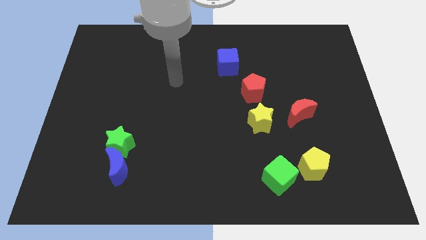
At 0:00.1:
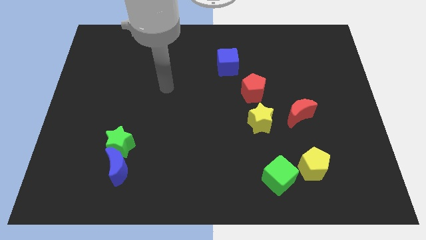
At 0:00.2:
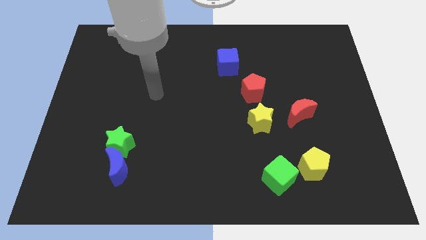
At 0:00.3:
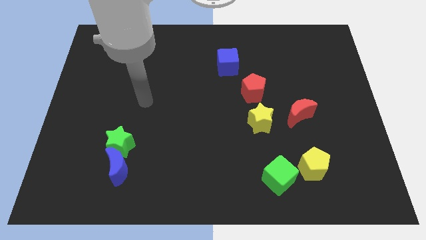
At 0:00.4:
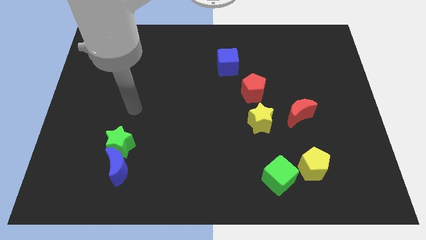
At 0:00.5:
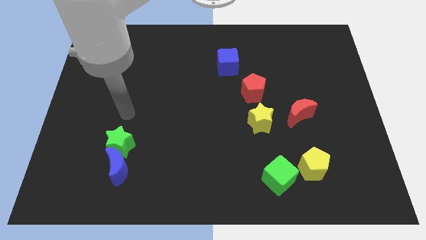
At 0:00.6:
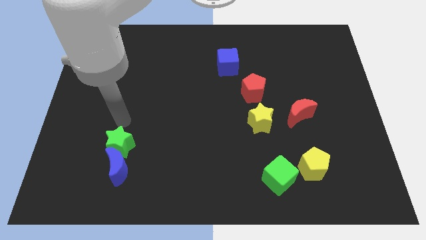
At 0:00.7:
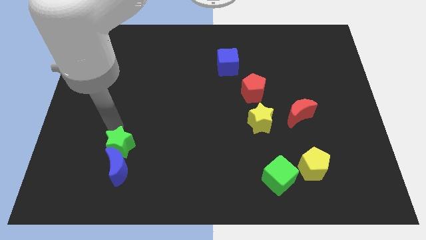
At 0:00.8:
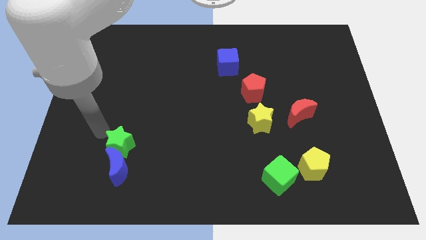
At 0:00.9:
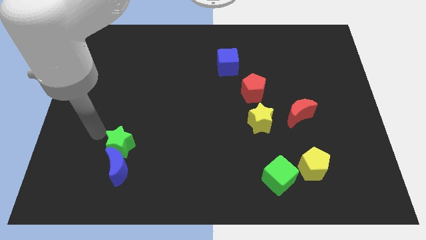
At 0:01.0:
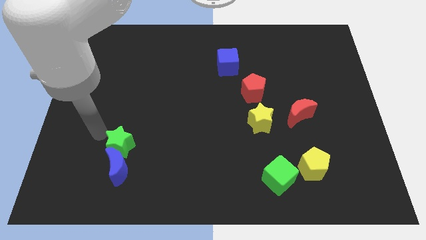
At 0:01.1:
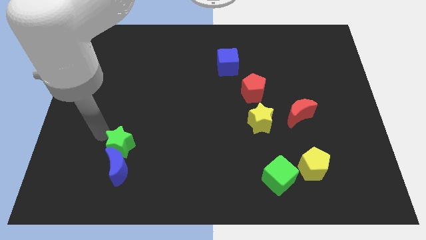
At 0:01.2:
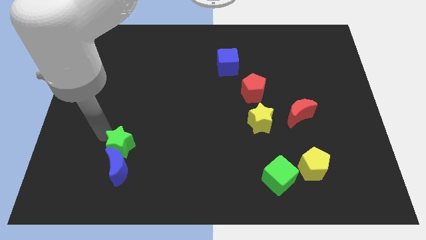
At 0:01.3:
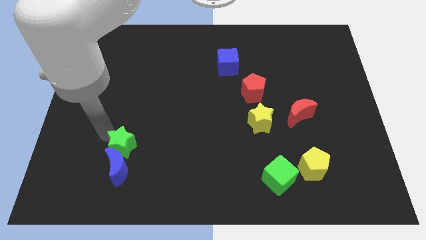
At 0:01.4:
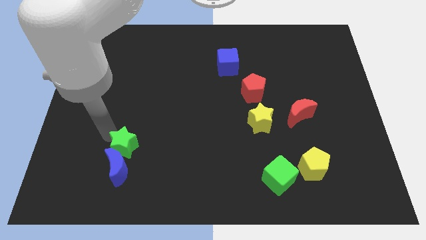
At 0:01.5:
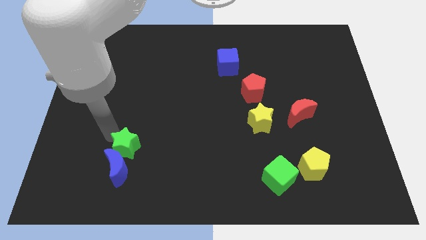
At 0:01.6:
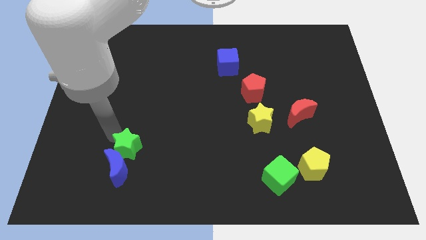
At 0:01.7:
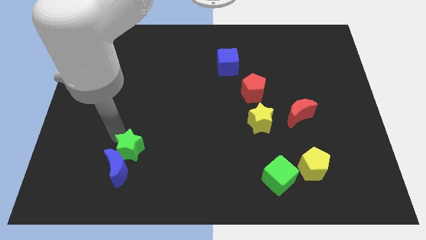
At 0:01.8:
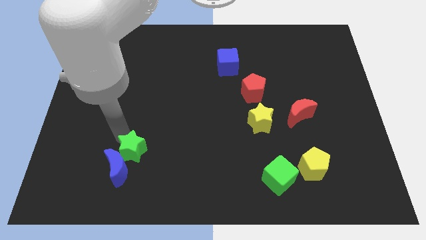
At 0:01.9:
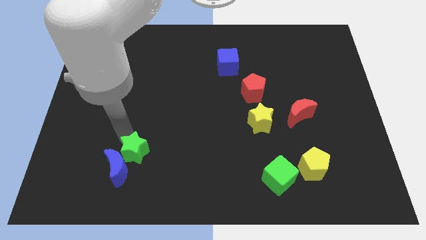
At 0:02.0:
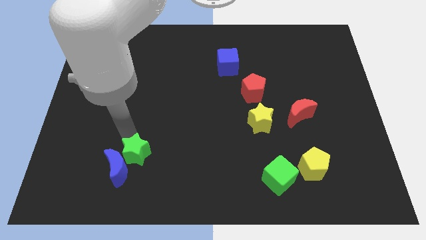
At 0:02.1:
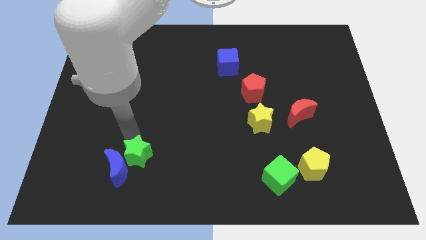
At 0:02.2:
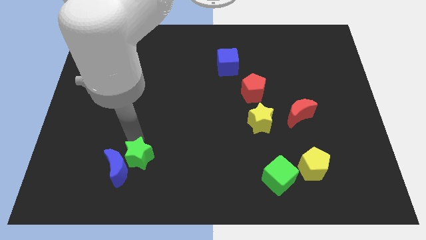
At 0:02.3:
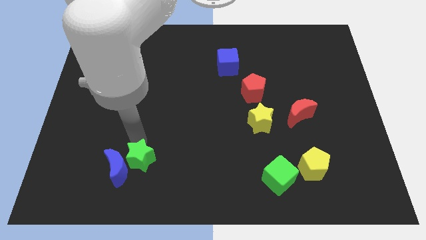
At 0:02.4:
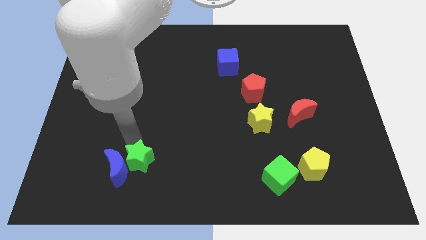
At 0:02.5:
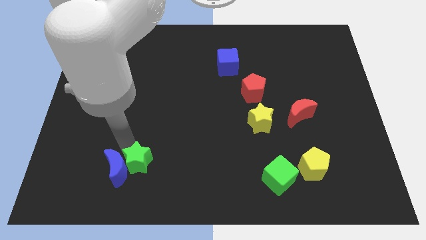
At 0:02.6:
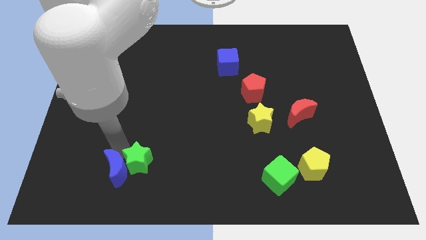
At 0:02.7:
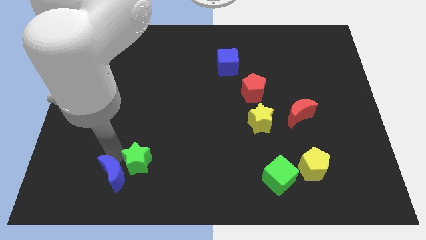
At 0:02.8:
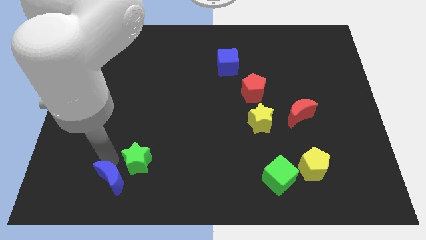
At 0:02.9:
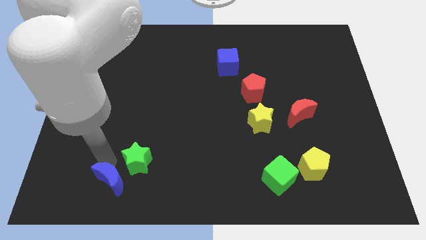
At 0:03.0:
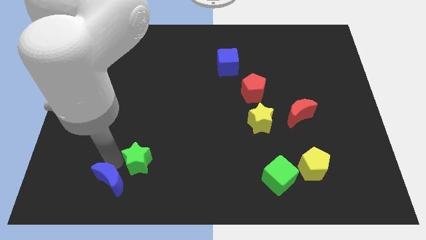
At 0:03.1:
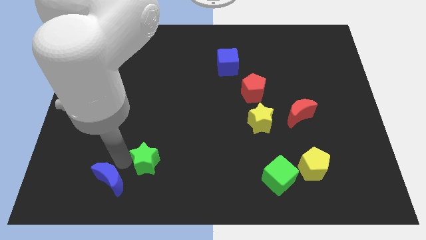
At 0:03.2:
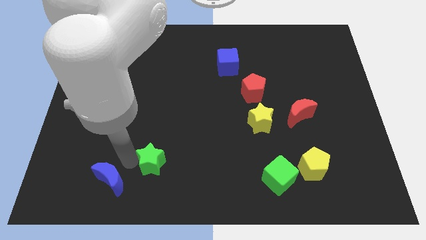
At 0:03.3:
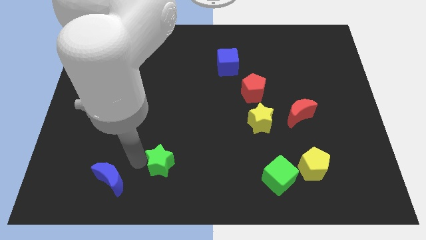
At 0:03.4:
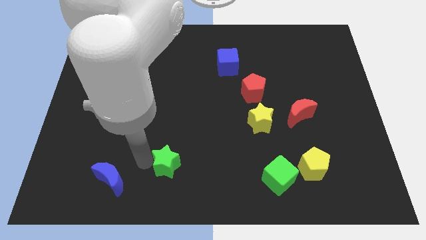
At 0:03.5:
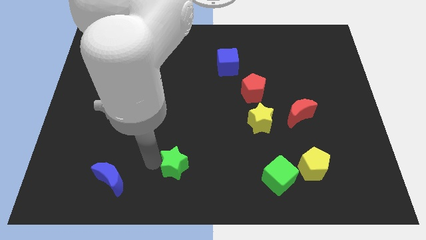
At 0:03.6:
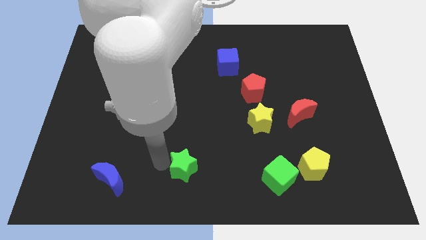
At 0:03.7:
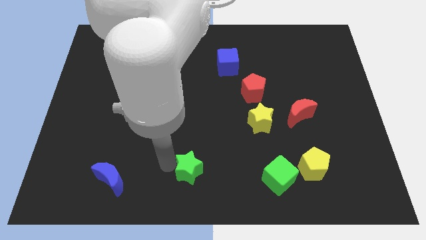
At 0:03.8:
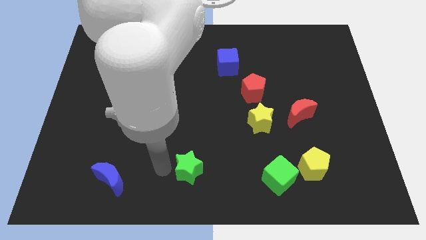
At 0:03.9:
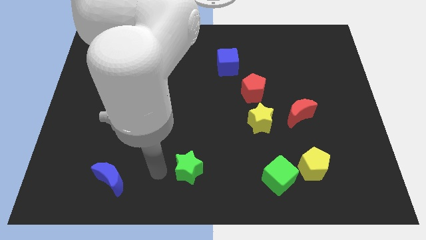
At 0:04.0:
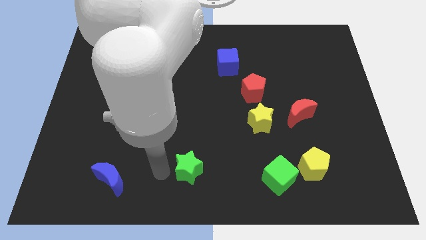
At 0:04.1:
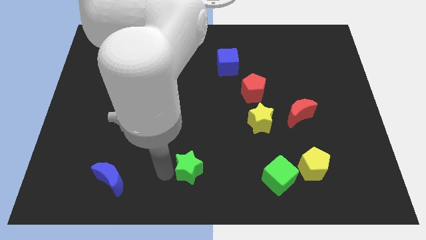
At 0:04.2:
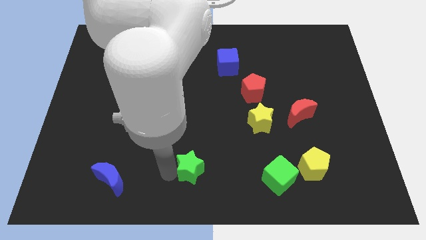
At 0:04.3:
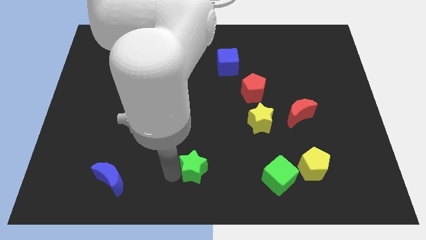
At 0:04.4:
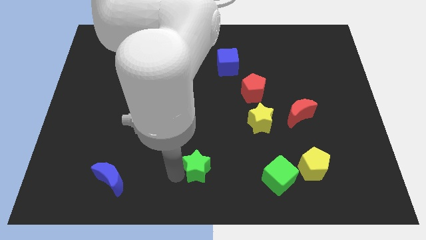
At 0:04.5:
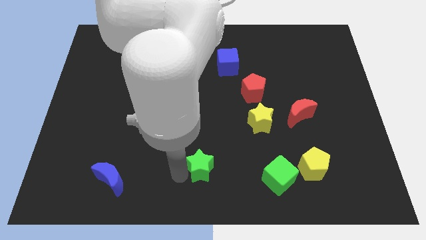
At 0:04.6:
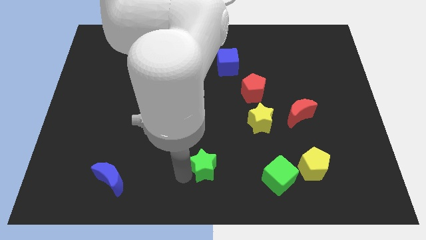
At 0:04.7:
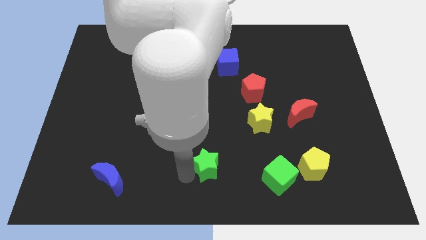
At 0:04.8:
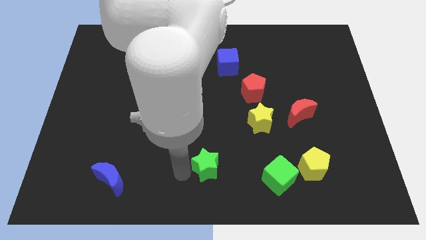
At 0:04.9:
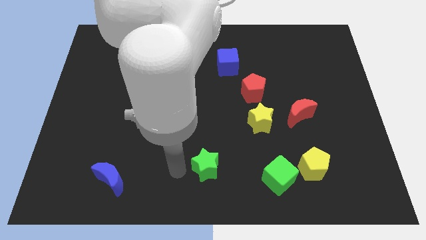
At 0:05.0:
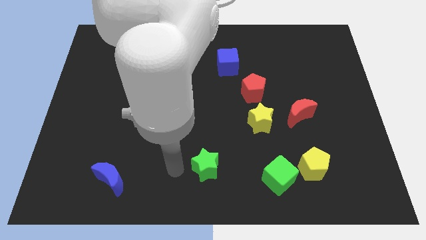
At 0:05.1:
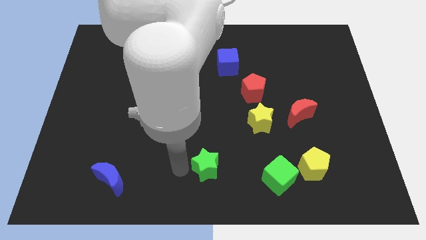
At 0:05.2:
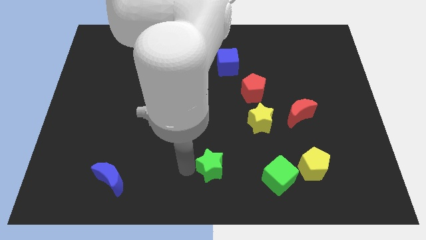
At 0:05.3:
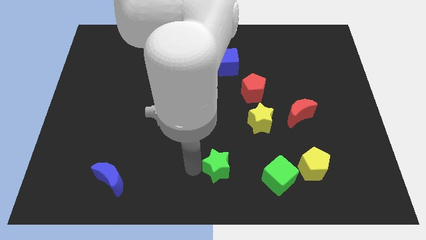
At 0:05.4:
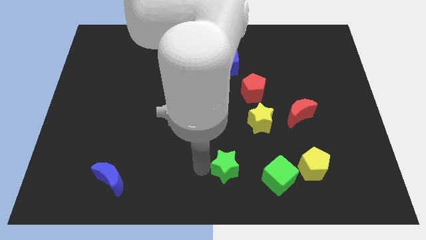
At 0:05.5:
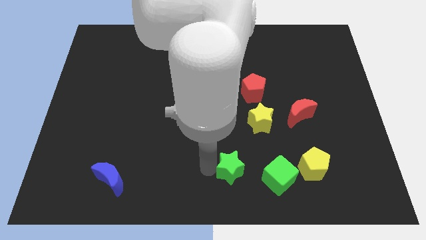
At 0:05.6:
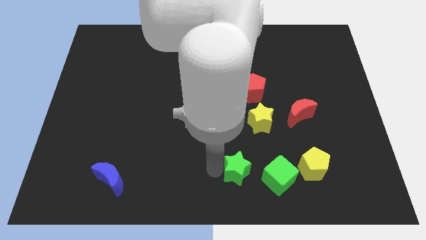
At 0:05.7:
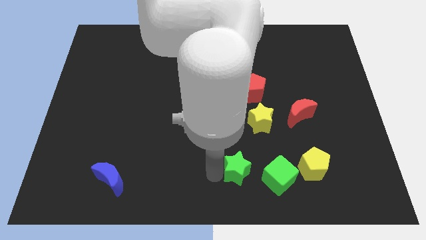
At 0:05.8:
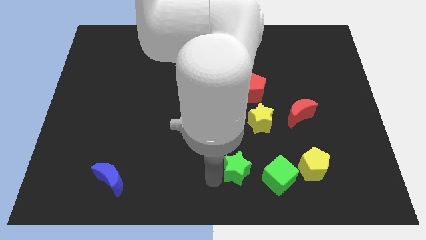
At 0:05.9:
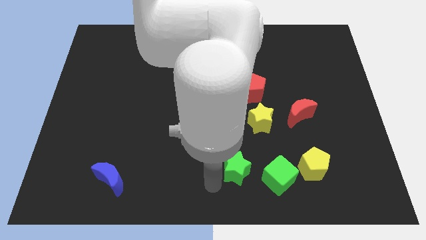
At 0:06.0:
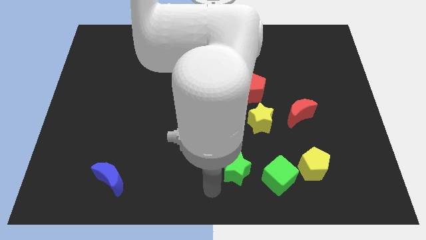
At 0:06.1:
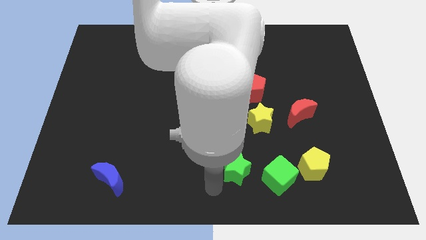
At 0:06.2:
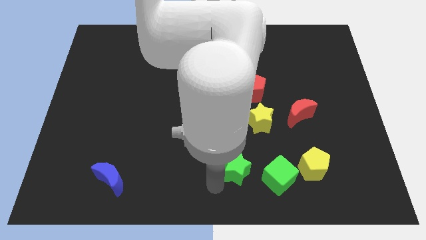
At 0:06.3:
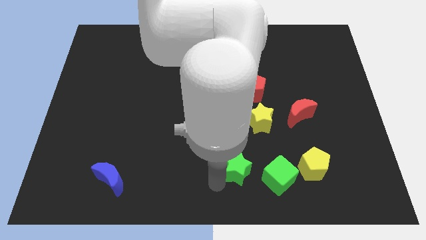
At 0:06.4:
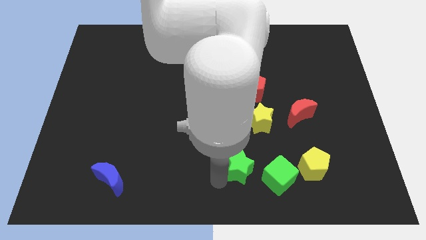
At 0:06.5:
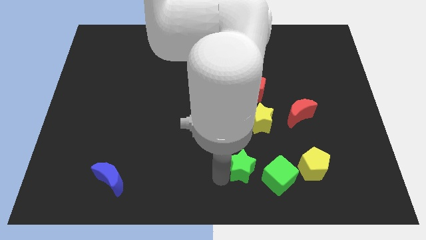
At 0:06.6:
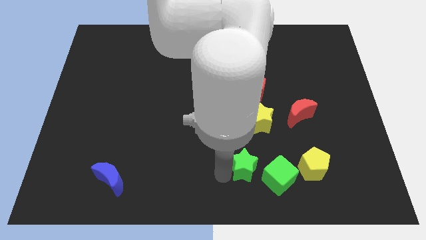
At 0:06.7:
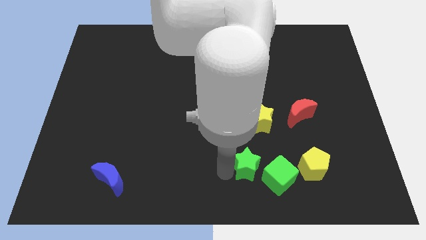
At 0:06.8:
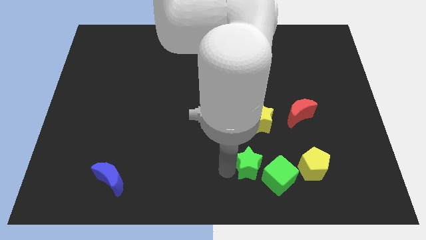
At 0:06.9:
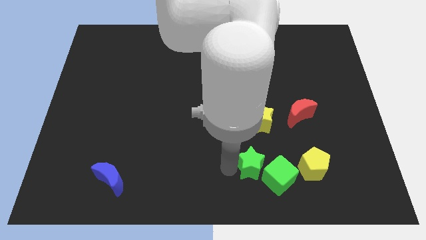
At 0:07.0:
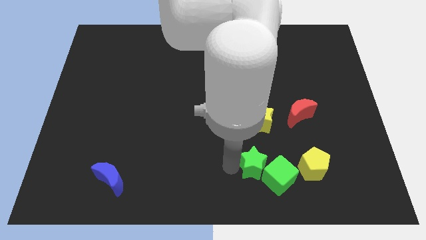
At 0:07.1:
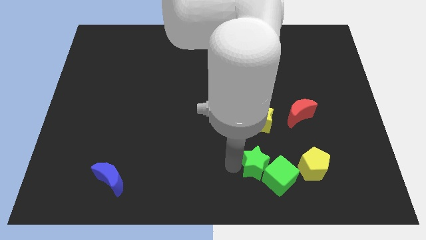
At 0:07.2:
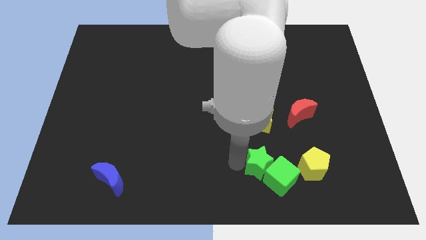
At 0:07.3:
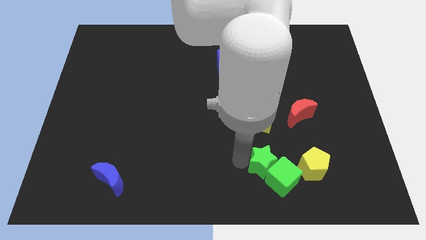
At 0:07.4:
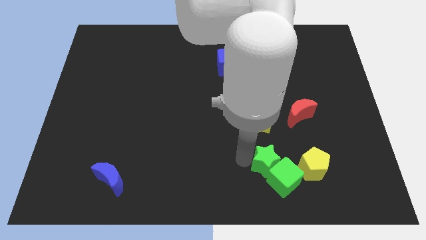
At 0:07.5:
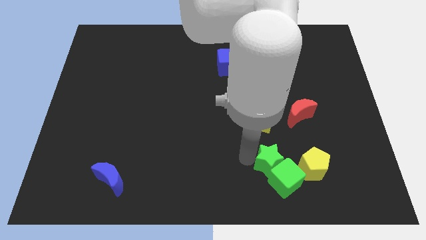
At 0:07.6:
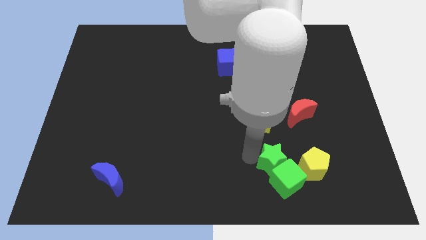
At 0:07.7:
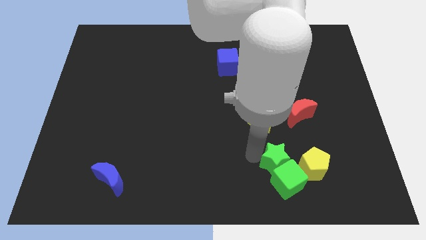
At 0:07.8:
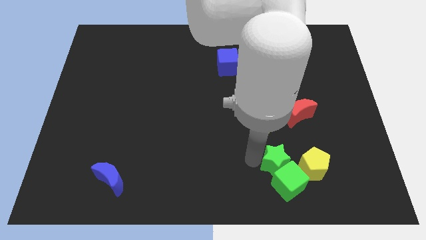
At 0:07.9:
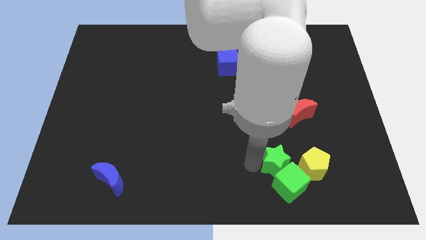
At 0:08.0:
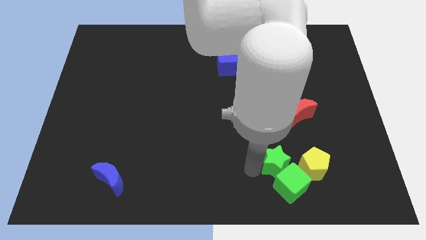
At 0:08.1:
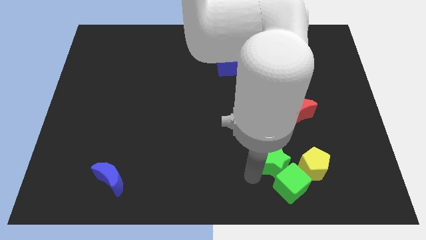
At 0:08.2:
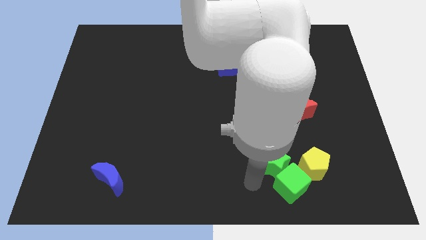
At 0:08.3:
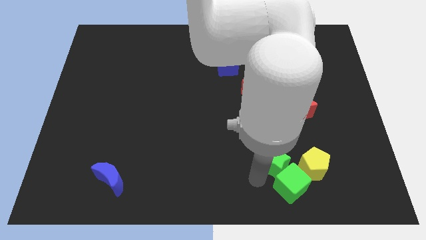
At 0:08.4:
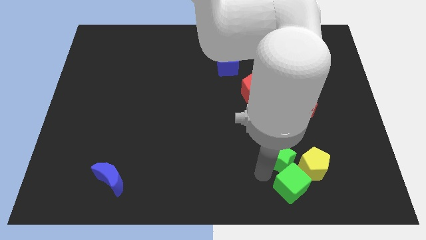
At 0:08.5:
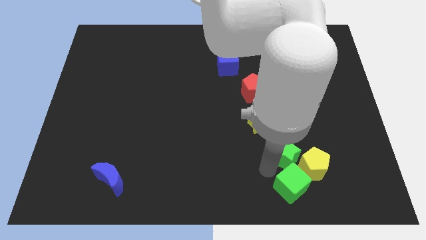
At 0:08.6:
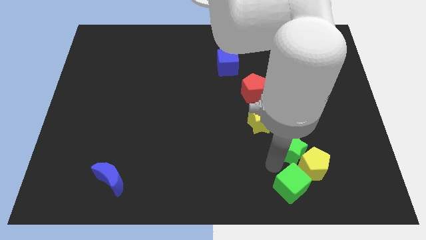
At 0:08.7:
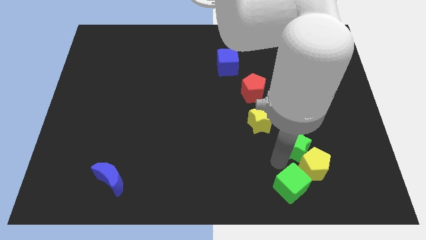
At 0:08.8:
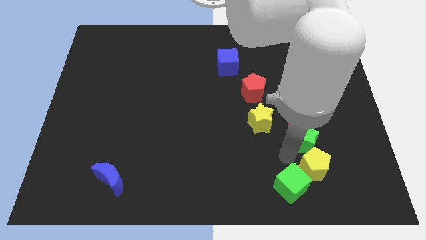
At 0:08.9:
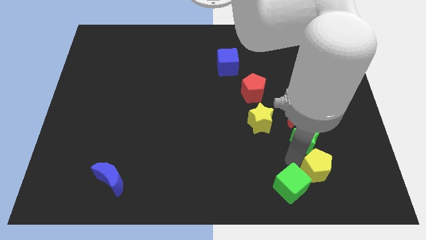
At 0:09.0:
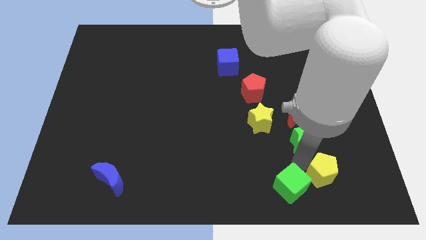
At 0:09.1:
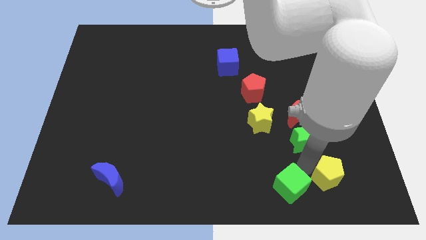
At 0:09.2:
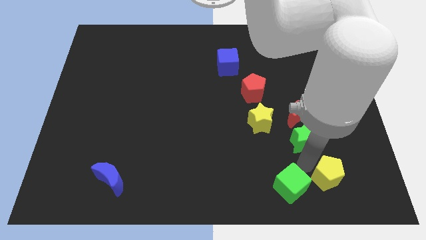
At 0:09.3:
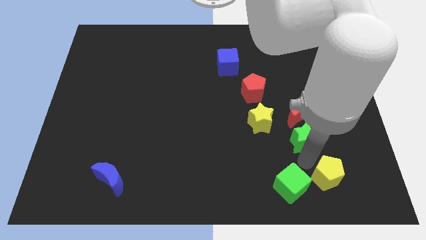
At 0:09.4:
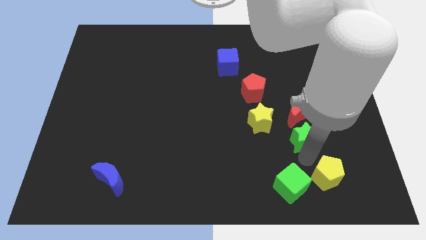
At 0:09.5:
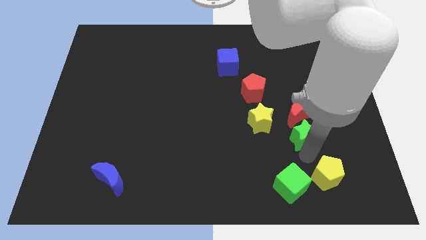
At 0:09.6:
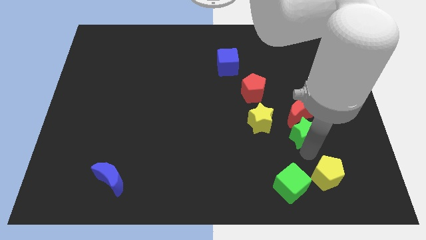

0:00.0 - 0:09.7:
put the green star close to the red moon
